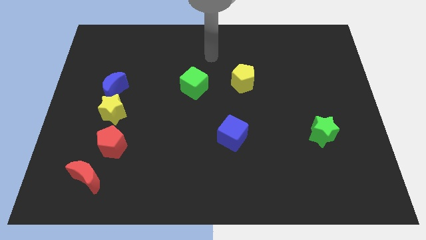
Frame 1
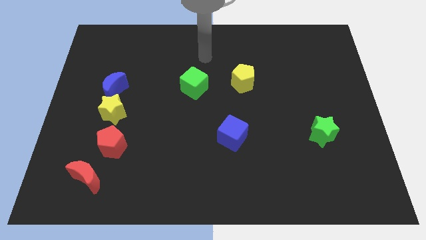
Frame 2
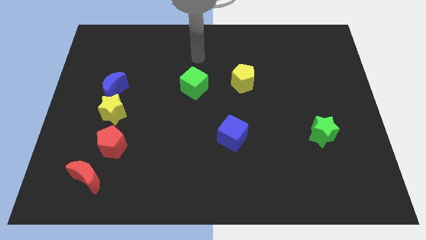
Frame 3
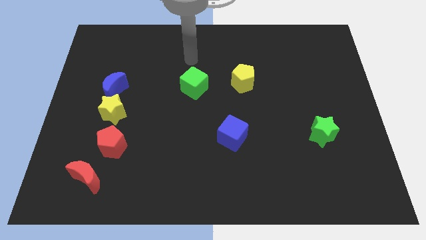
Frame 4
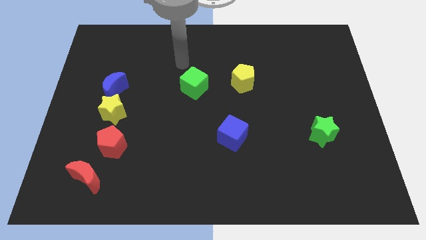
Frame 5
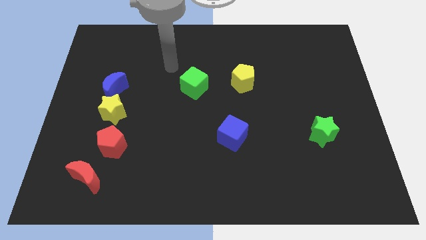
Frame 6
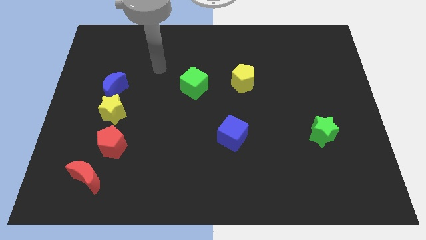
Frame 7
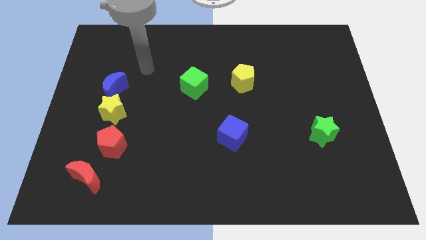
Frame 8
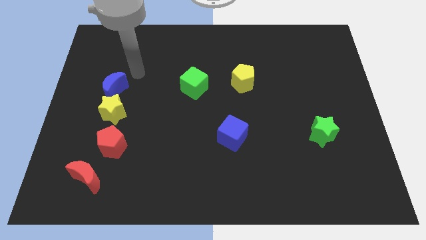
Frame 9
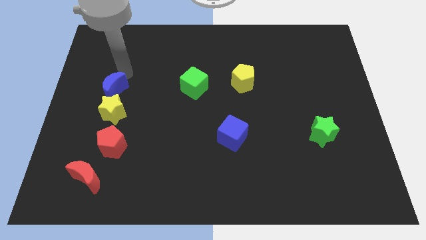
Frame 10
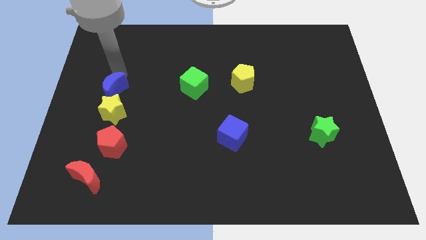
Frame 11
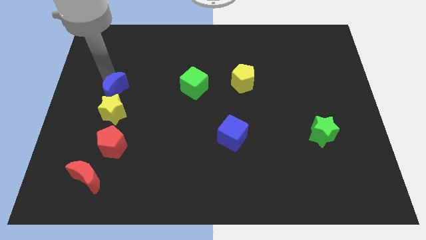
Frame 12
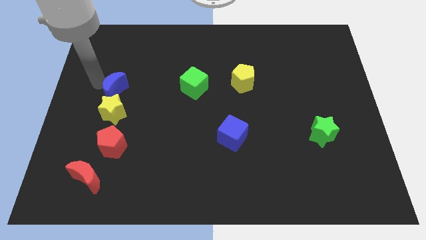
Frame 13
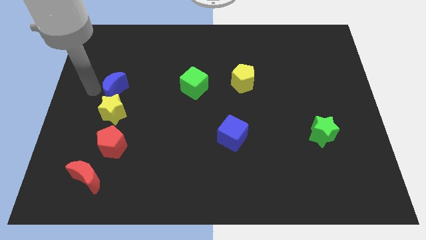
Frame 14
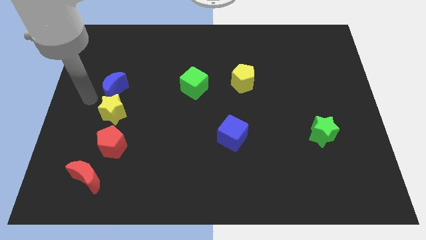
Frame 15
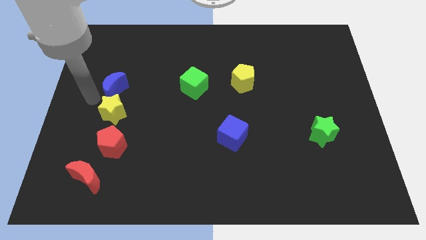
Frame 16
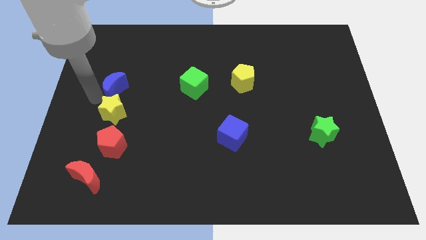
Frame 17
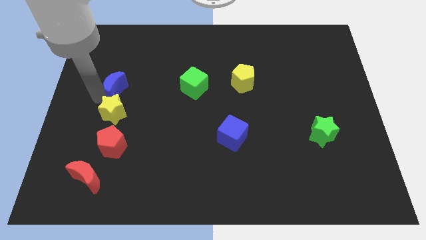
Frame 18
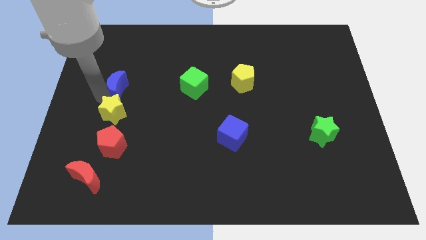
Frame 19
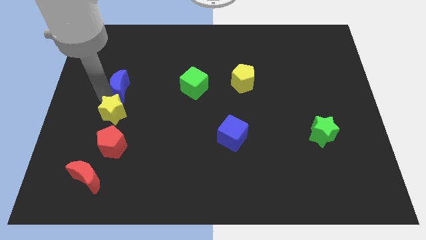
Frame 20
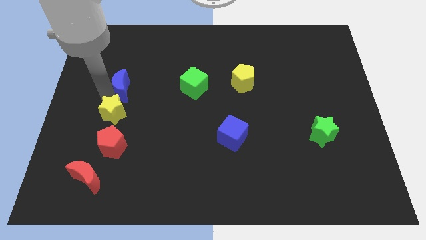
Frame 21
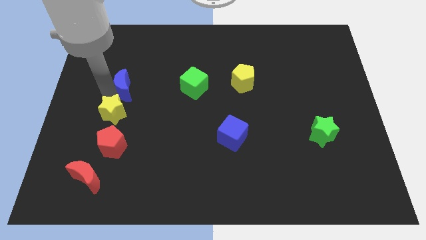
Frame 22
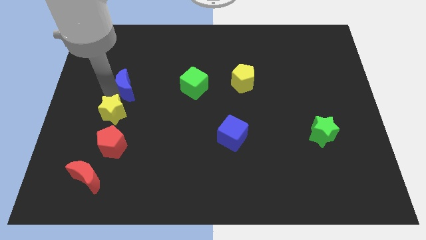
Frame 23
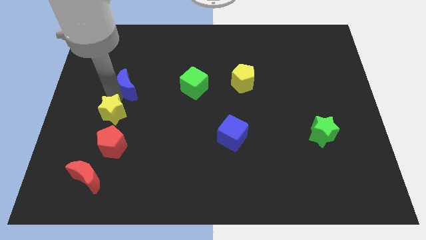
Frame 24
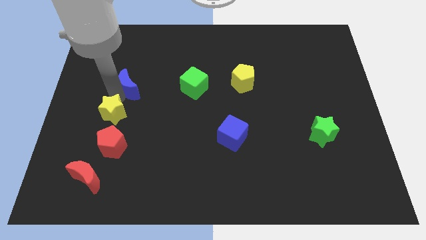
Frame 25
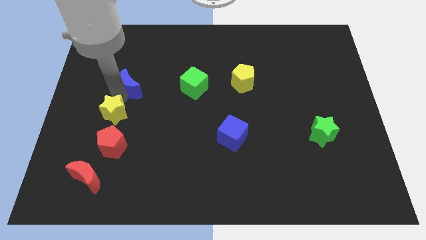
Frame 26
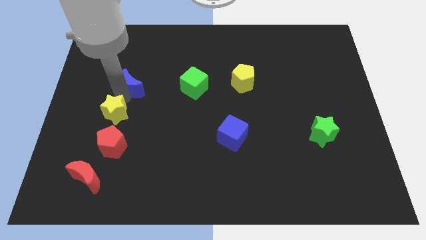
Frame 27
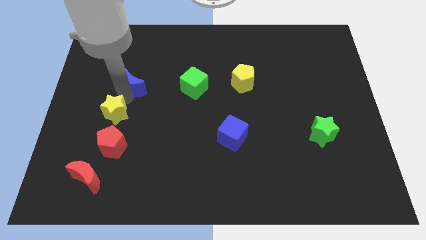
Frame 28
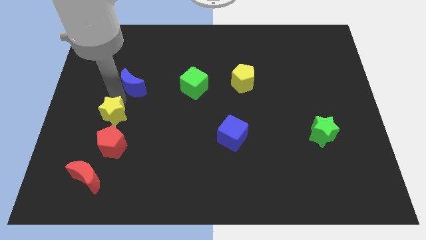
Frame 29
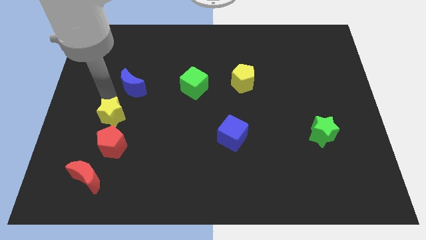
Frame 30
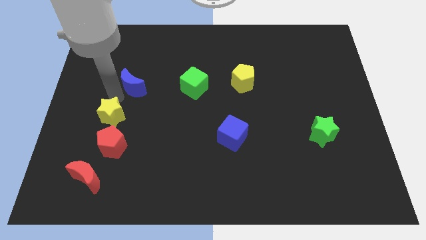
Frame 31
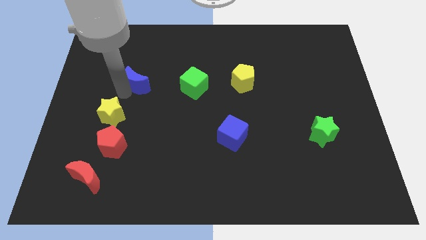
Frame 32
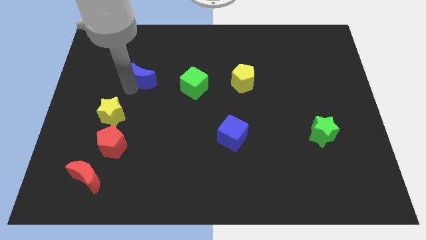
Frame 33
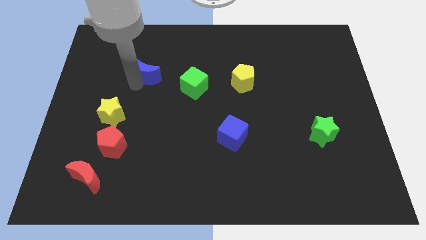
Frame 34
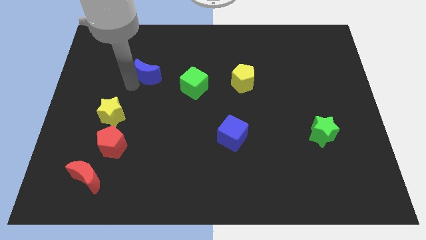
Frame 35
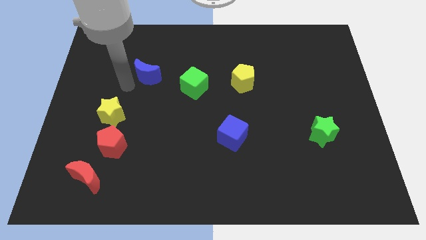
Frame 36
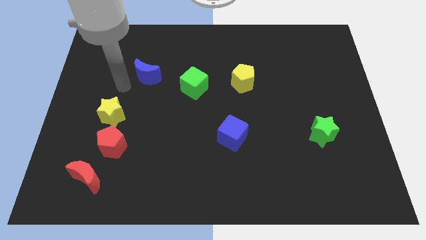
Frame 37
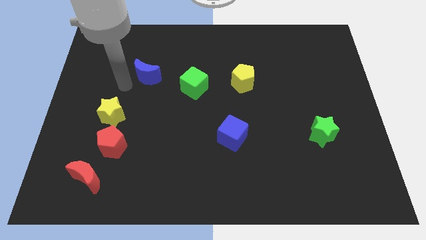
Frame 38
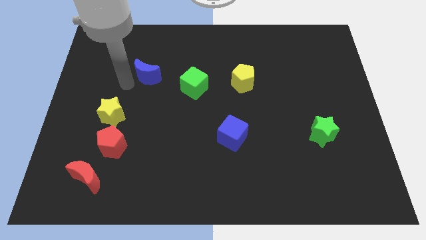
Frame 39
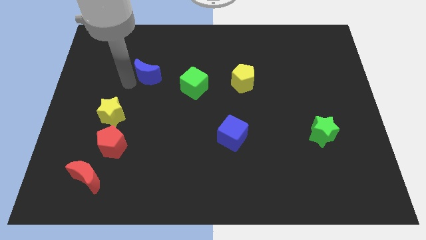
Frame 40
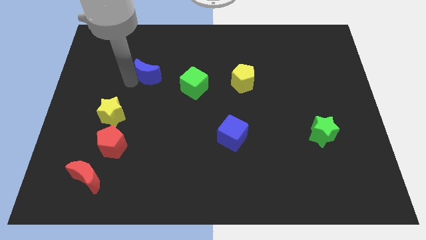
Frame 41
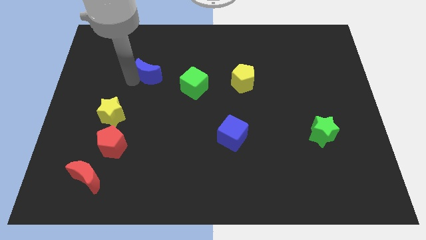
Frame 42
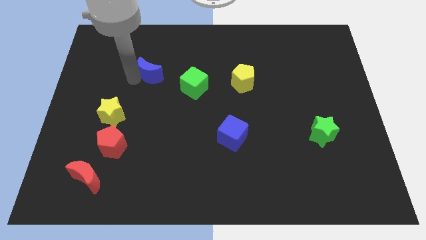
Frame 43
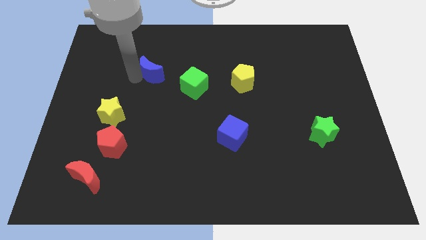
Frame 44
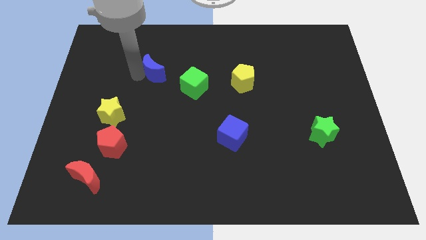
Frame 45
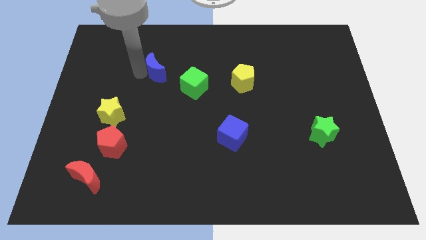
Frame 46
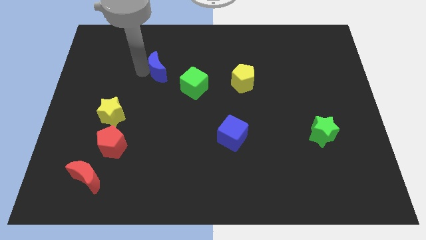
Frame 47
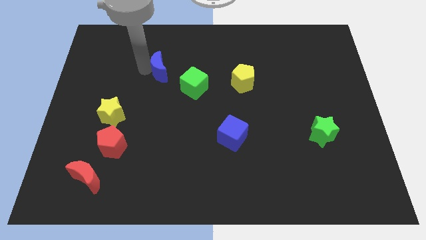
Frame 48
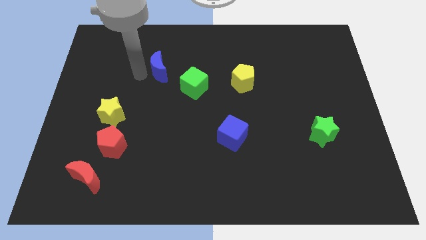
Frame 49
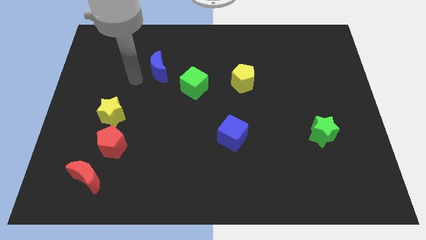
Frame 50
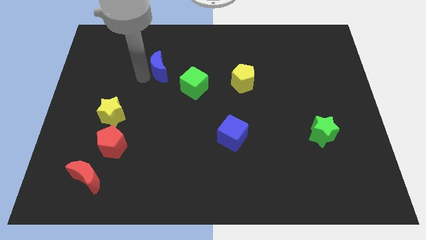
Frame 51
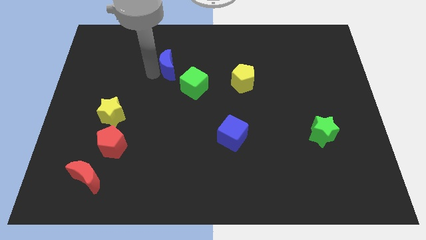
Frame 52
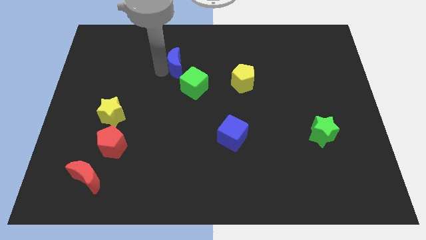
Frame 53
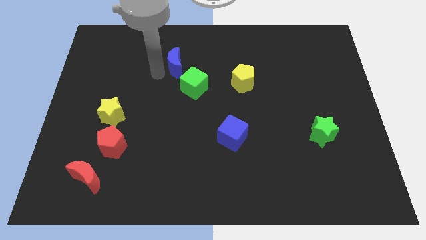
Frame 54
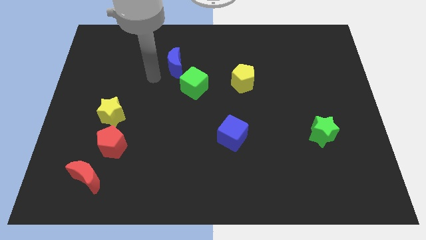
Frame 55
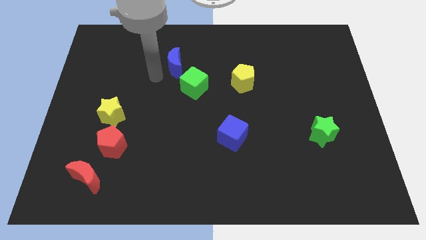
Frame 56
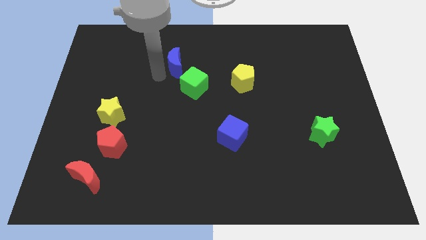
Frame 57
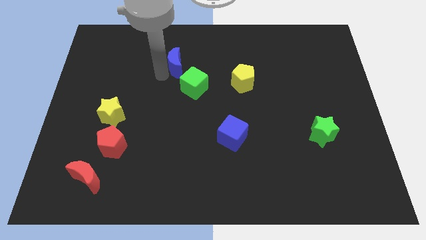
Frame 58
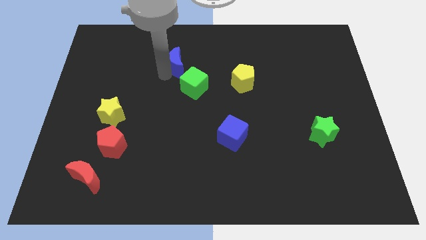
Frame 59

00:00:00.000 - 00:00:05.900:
move the blue moon to the top side of the green cube

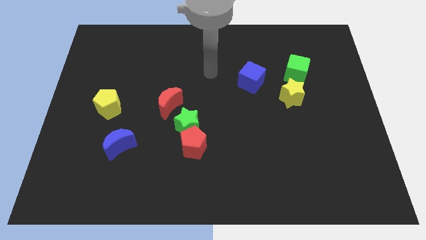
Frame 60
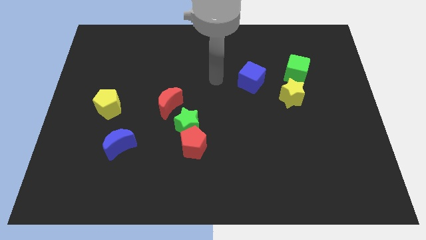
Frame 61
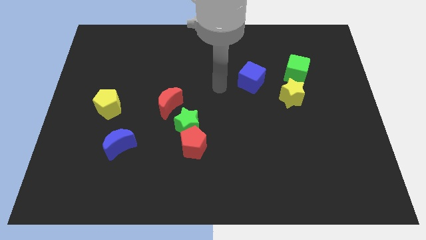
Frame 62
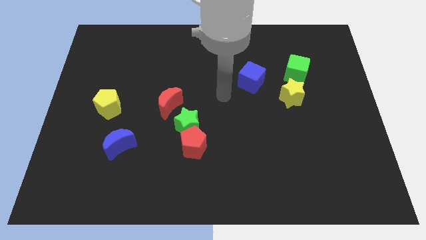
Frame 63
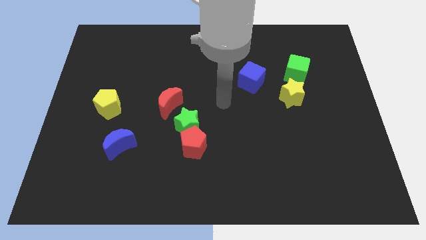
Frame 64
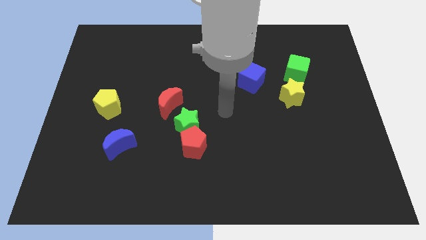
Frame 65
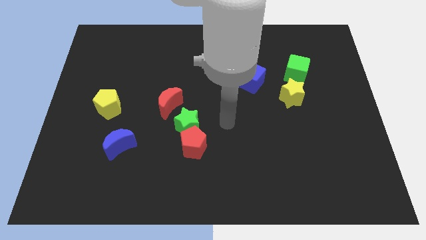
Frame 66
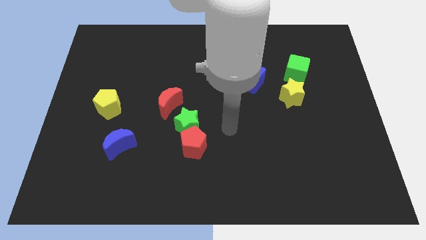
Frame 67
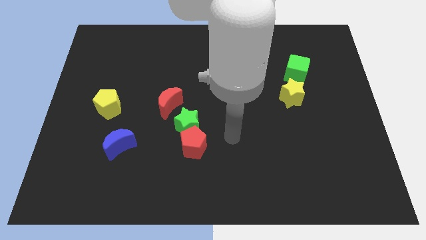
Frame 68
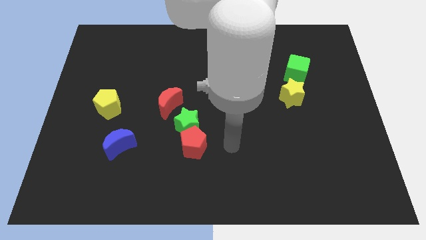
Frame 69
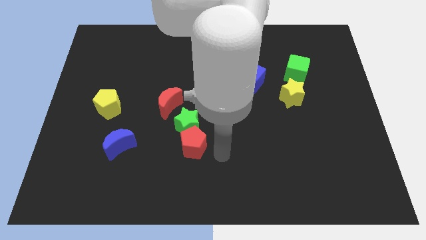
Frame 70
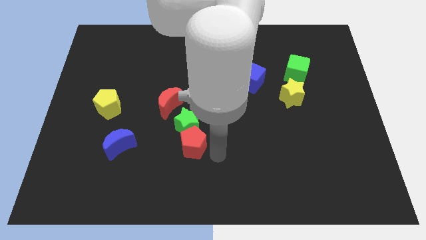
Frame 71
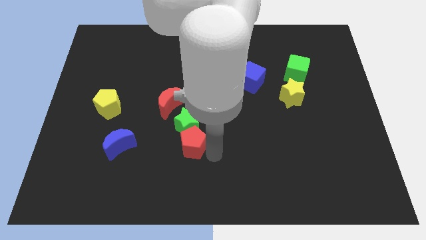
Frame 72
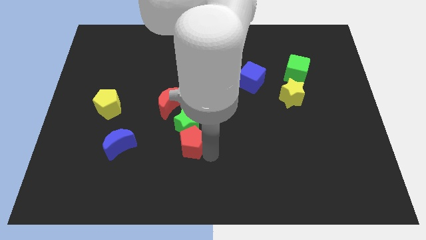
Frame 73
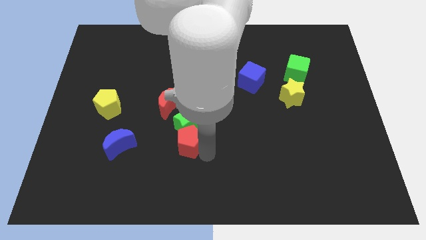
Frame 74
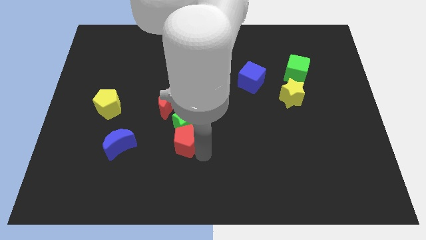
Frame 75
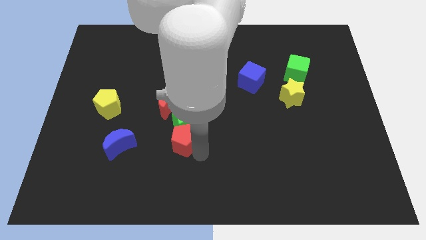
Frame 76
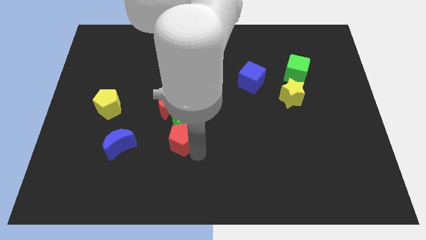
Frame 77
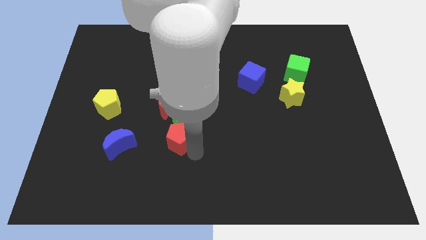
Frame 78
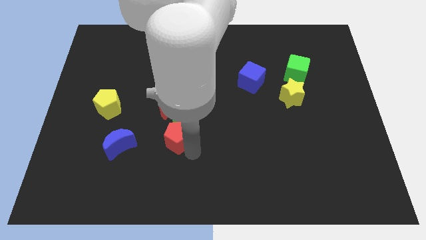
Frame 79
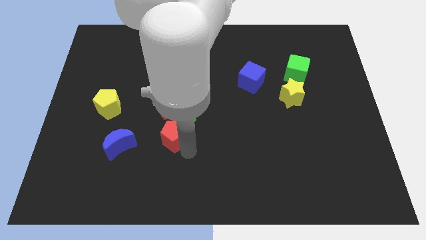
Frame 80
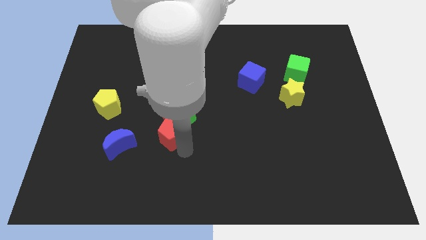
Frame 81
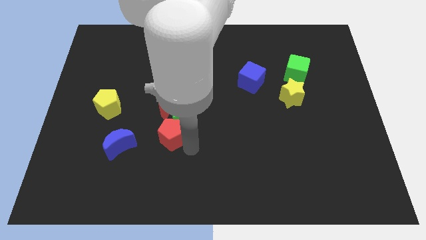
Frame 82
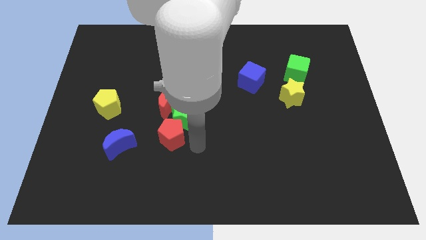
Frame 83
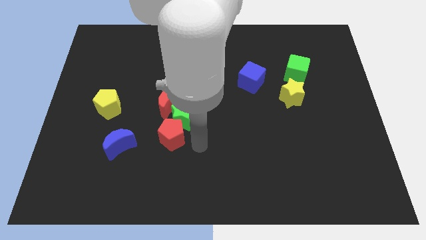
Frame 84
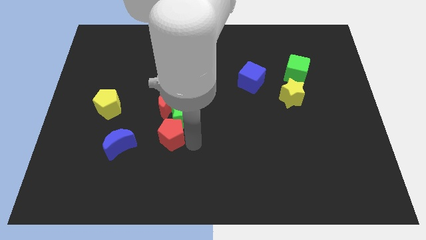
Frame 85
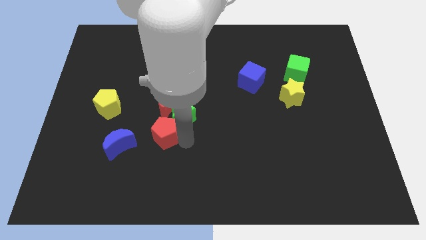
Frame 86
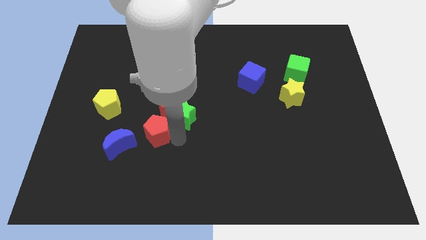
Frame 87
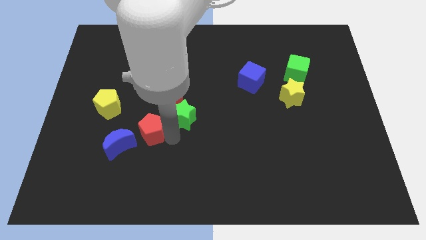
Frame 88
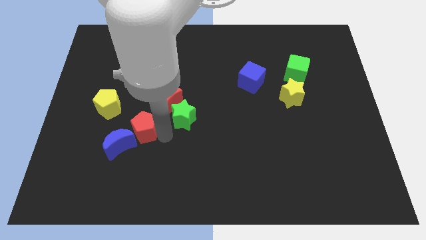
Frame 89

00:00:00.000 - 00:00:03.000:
put the red pentagon to the bottom right of the yellow pentagon
